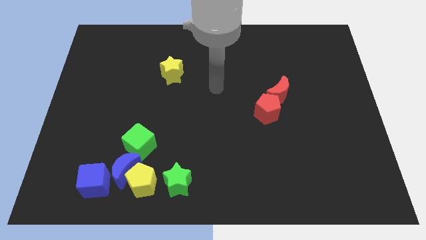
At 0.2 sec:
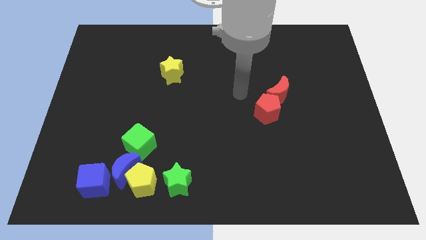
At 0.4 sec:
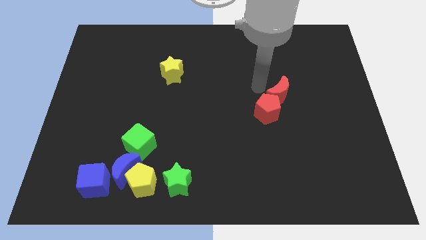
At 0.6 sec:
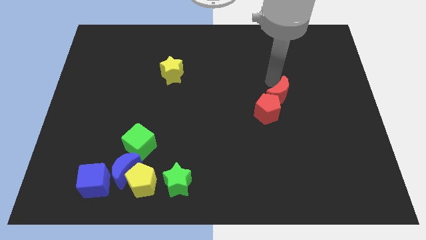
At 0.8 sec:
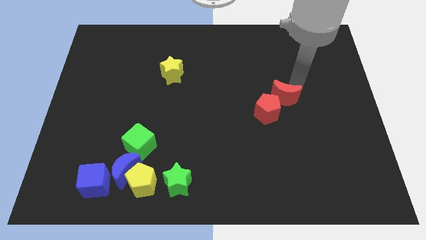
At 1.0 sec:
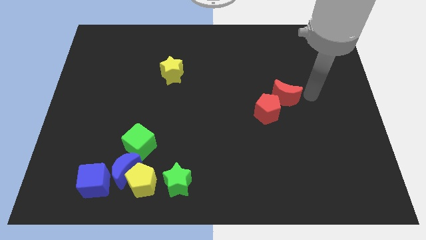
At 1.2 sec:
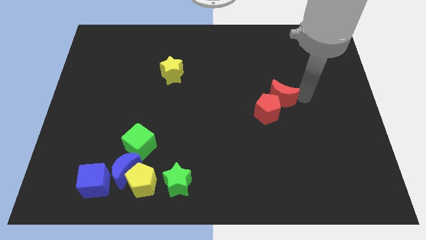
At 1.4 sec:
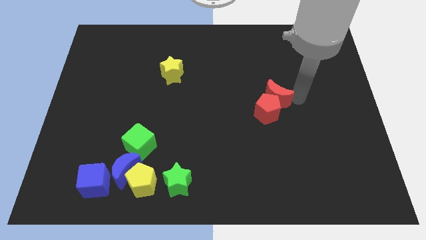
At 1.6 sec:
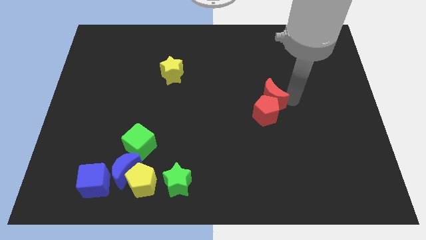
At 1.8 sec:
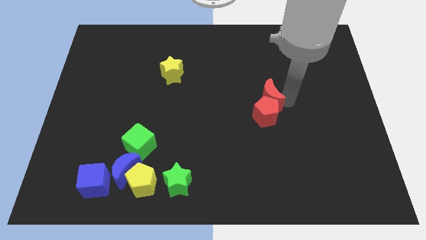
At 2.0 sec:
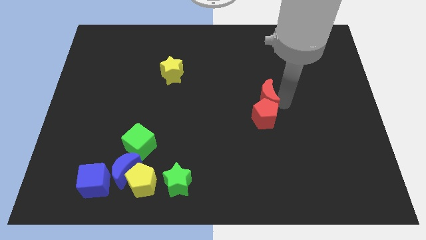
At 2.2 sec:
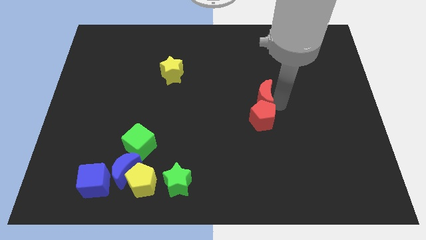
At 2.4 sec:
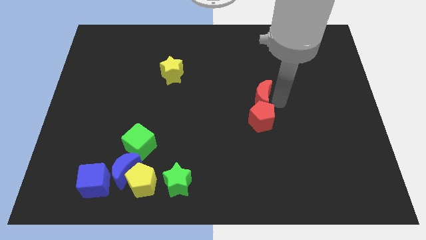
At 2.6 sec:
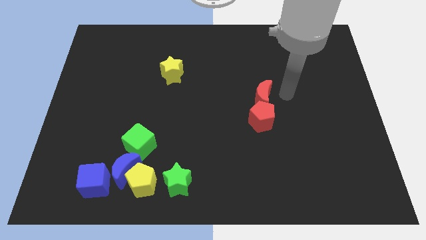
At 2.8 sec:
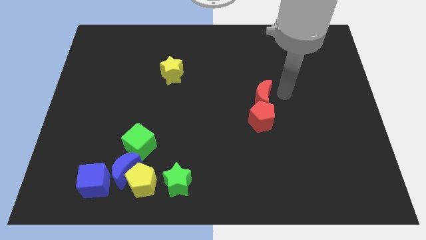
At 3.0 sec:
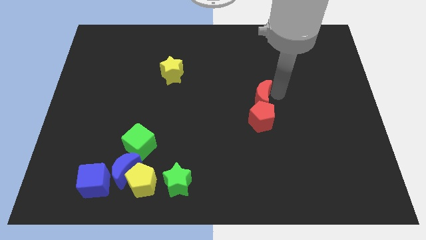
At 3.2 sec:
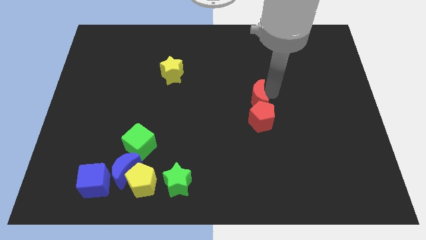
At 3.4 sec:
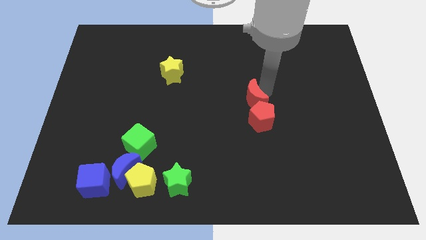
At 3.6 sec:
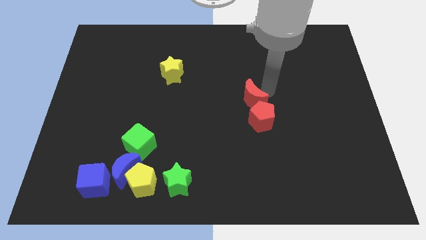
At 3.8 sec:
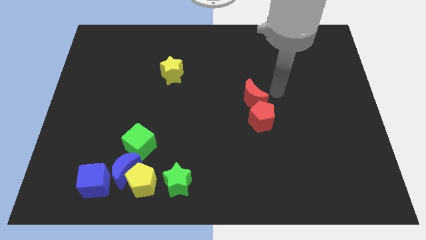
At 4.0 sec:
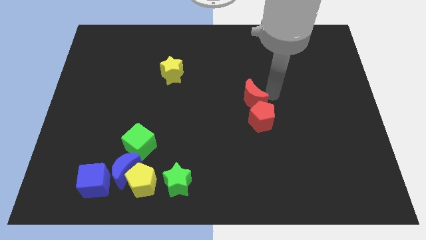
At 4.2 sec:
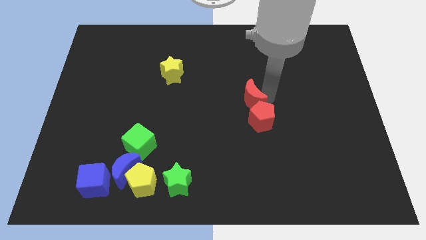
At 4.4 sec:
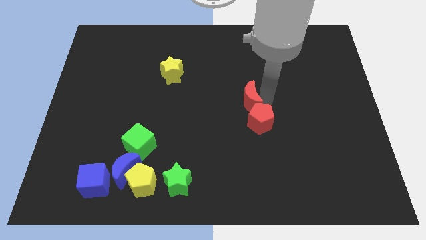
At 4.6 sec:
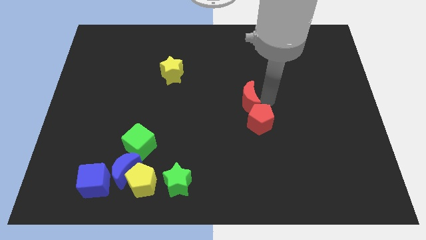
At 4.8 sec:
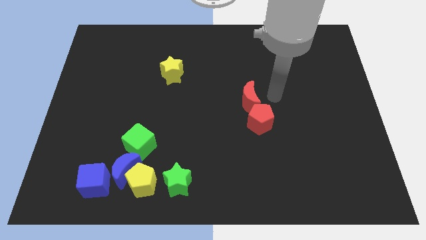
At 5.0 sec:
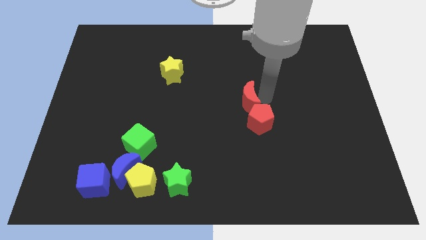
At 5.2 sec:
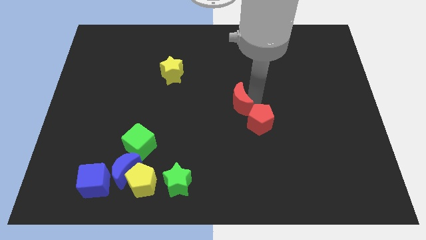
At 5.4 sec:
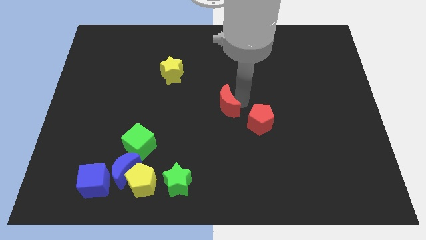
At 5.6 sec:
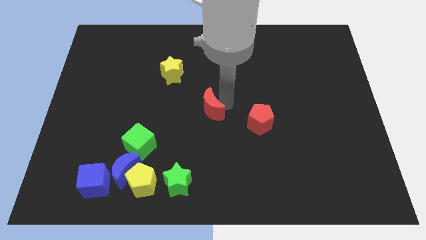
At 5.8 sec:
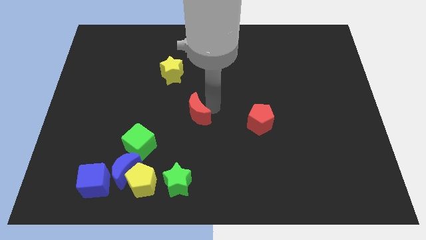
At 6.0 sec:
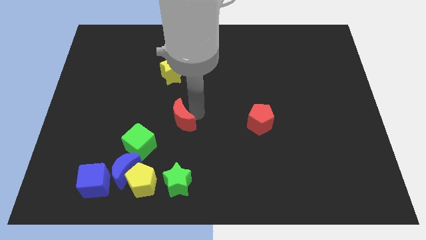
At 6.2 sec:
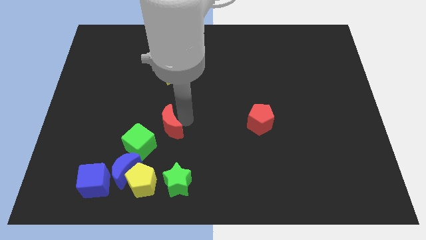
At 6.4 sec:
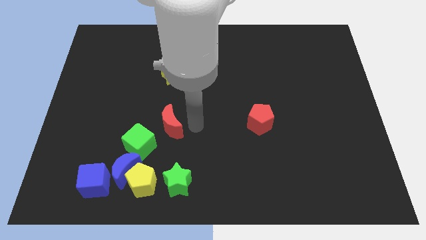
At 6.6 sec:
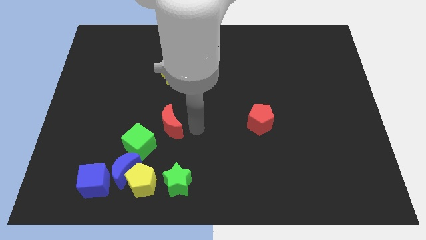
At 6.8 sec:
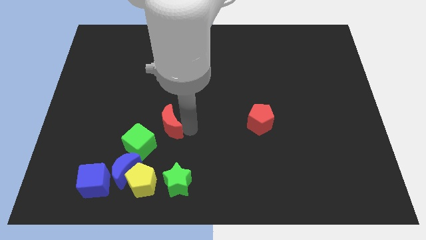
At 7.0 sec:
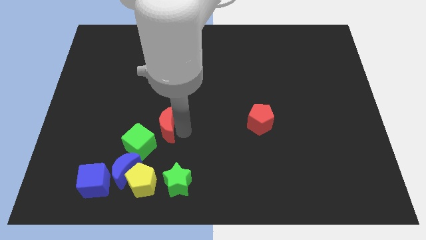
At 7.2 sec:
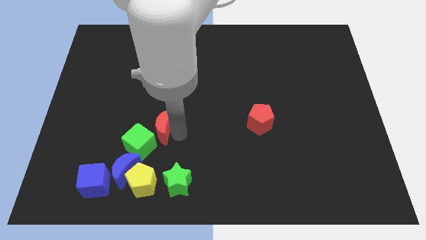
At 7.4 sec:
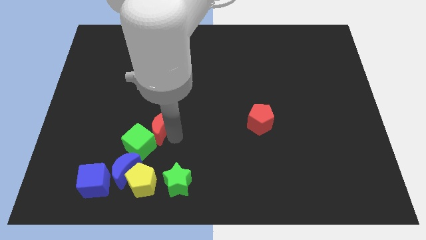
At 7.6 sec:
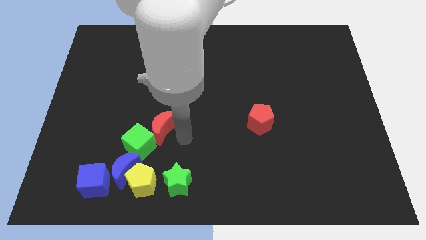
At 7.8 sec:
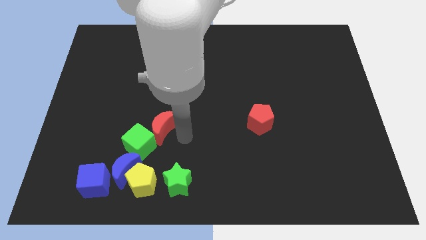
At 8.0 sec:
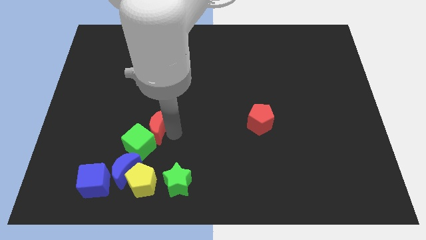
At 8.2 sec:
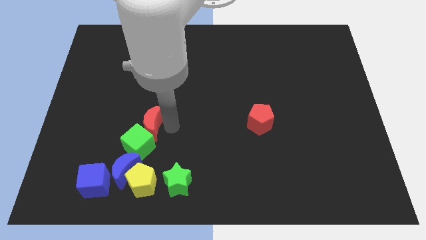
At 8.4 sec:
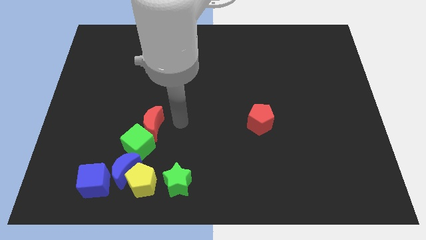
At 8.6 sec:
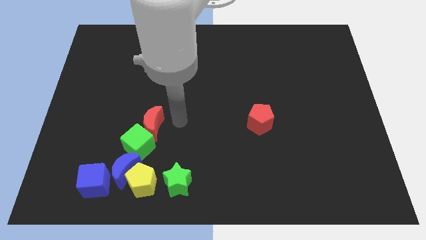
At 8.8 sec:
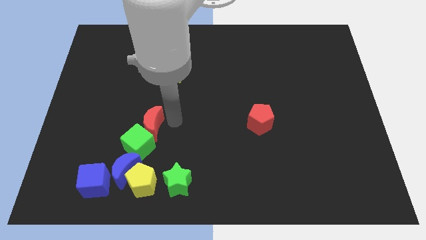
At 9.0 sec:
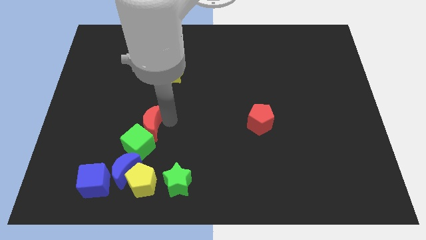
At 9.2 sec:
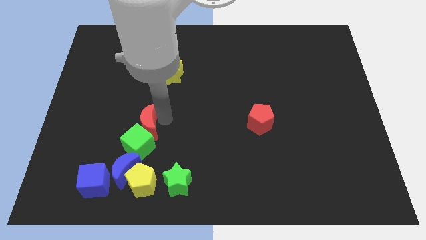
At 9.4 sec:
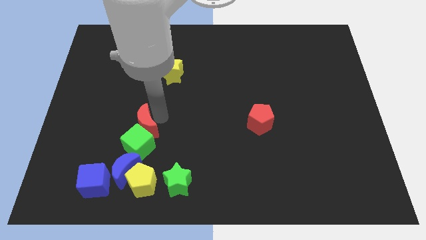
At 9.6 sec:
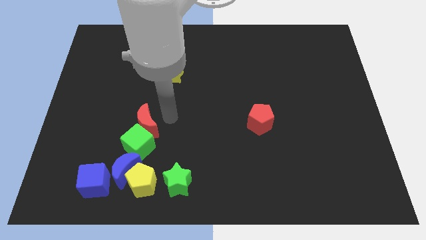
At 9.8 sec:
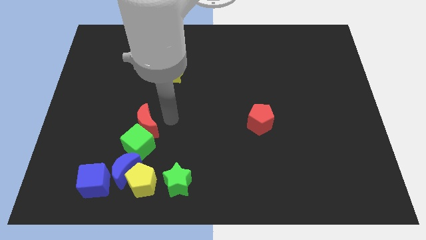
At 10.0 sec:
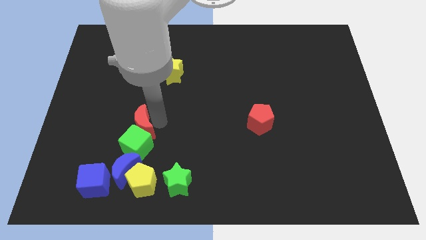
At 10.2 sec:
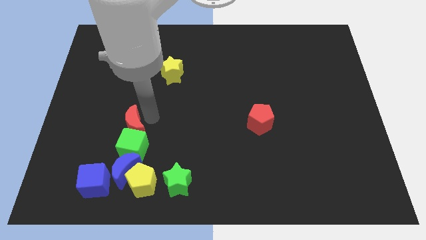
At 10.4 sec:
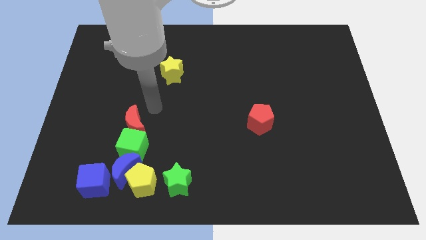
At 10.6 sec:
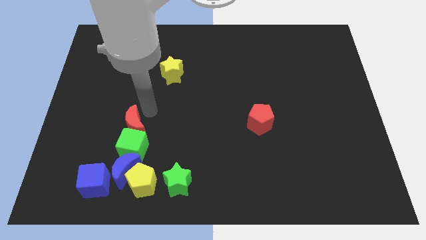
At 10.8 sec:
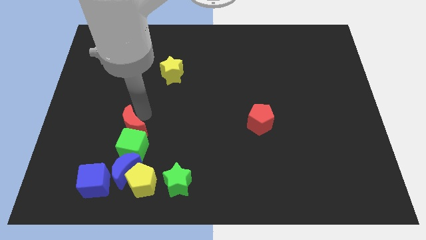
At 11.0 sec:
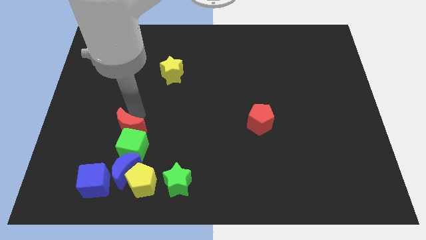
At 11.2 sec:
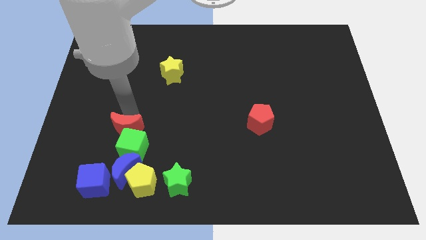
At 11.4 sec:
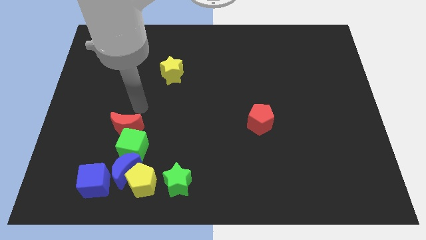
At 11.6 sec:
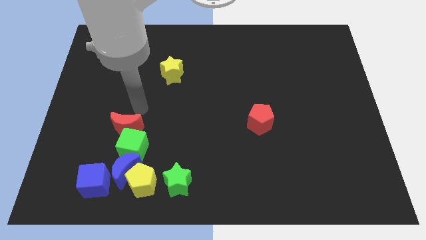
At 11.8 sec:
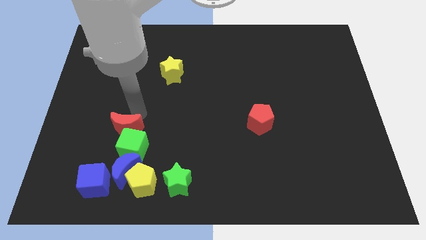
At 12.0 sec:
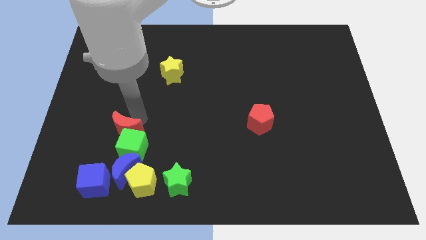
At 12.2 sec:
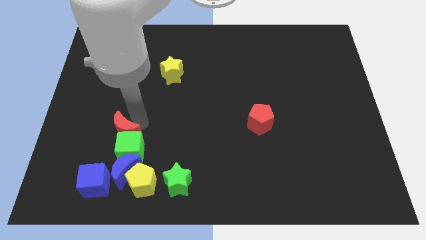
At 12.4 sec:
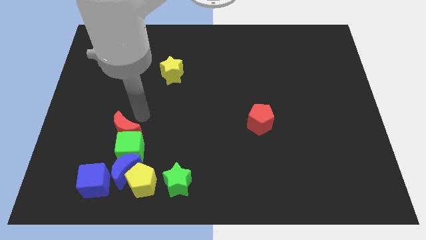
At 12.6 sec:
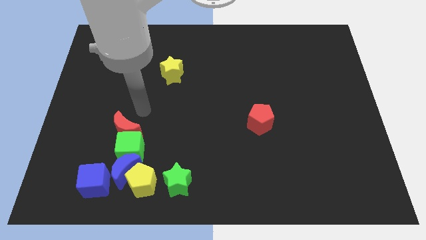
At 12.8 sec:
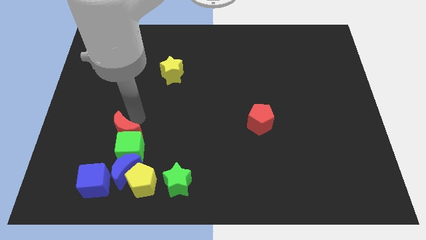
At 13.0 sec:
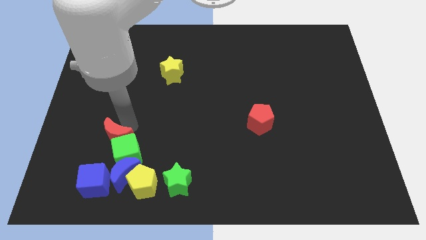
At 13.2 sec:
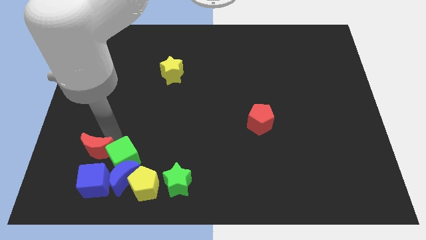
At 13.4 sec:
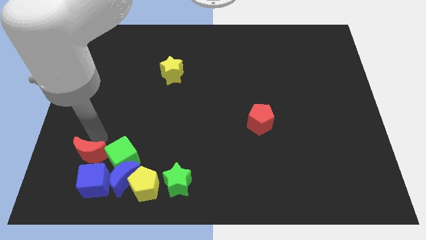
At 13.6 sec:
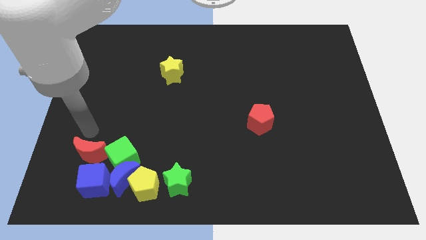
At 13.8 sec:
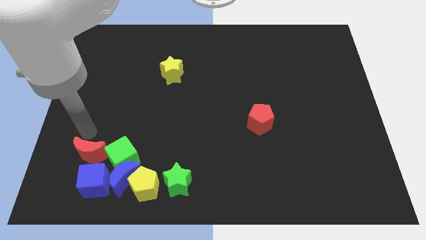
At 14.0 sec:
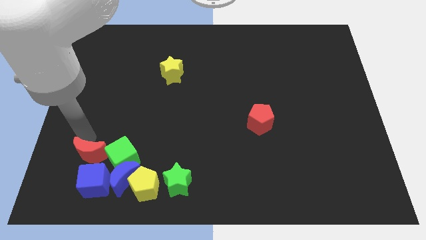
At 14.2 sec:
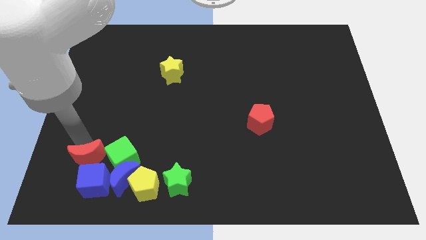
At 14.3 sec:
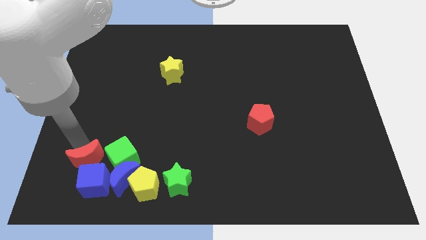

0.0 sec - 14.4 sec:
push the red moon towards the blue cube
